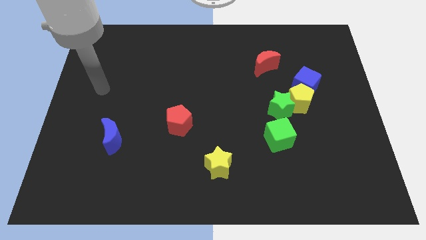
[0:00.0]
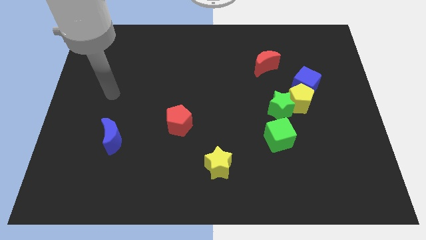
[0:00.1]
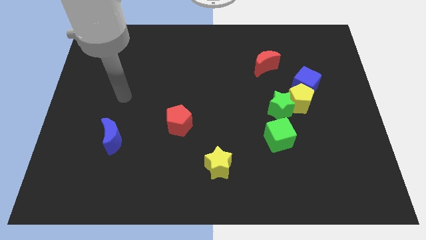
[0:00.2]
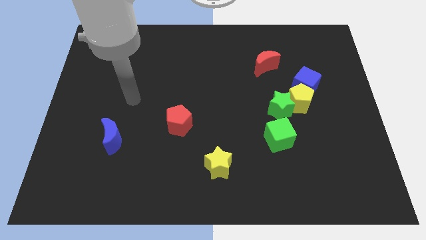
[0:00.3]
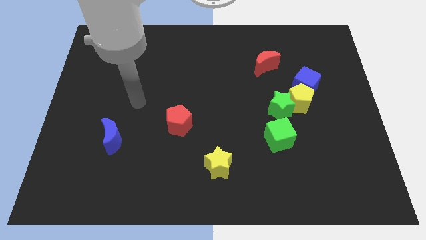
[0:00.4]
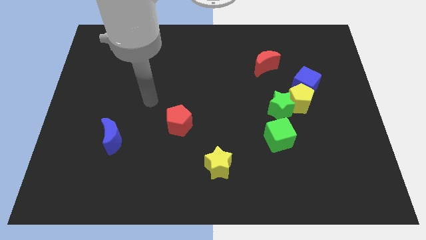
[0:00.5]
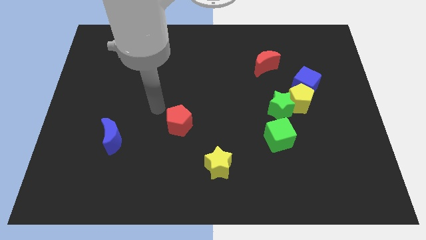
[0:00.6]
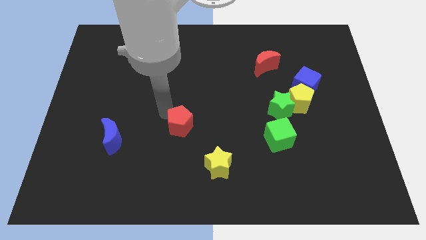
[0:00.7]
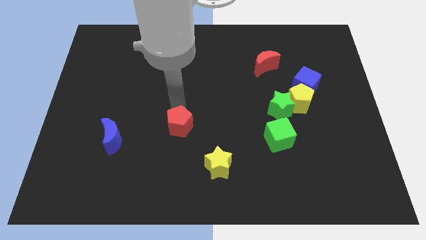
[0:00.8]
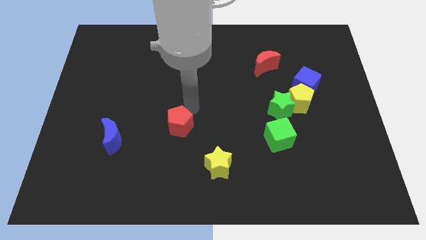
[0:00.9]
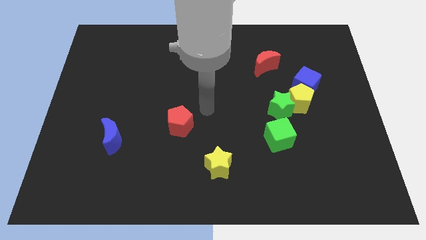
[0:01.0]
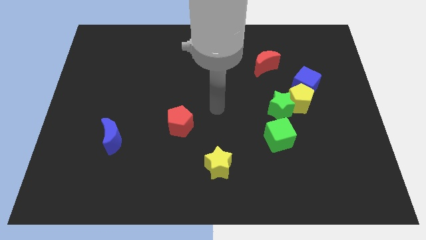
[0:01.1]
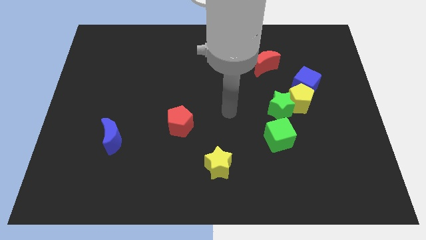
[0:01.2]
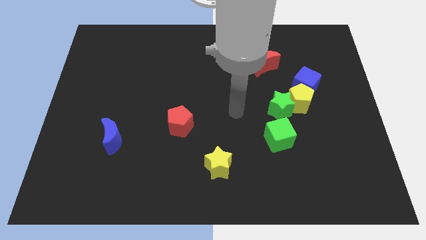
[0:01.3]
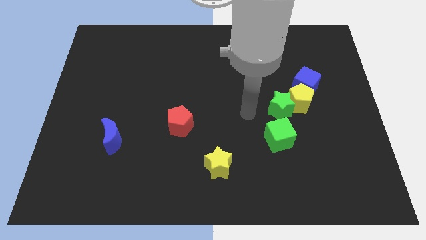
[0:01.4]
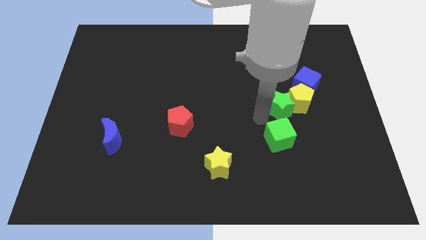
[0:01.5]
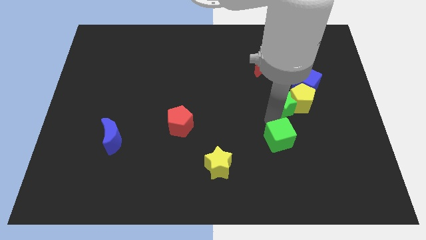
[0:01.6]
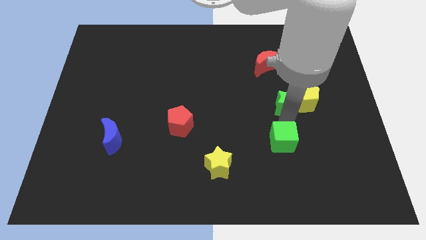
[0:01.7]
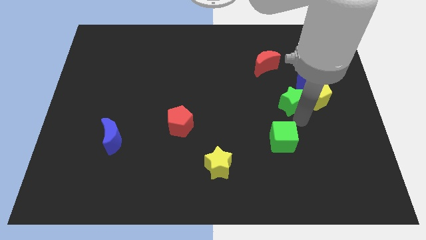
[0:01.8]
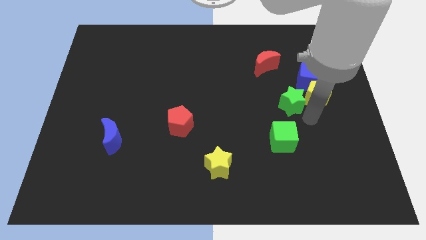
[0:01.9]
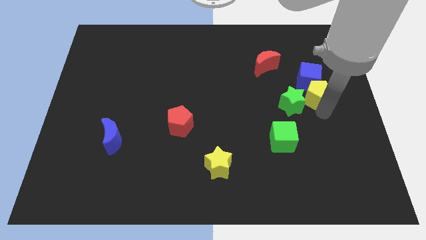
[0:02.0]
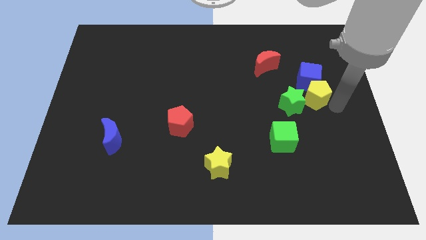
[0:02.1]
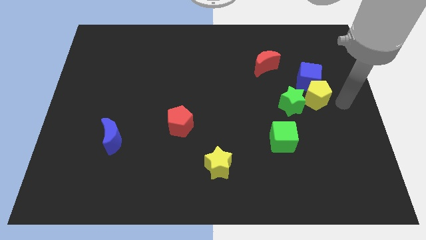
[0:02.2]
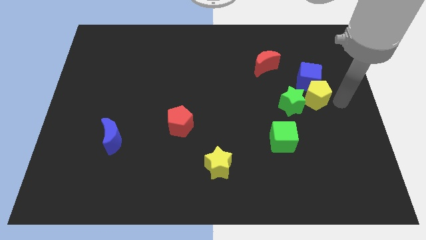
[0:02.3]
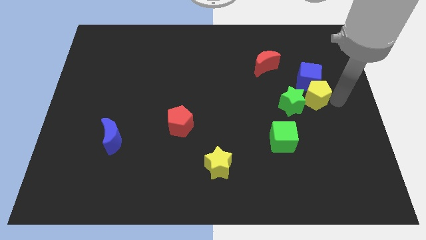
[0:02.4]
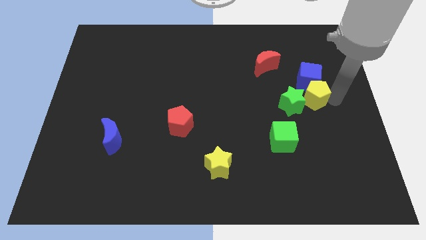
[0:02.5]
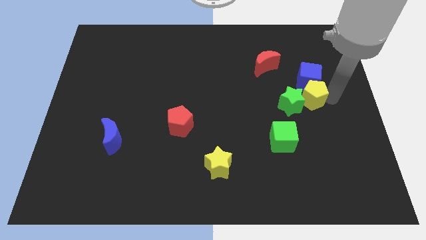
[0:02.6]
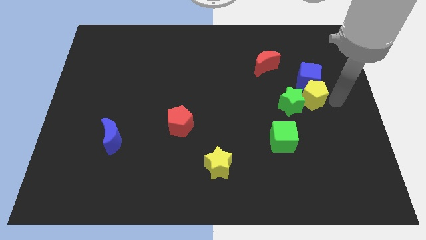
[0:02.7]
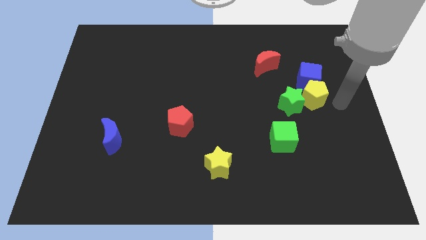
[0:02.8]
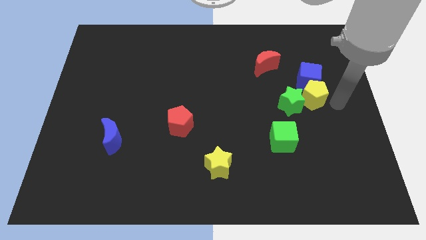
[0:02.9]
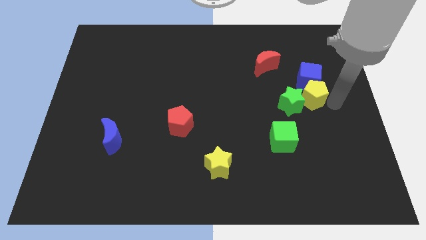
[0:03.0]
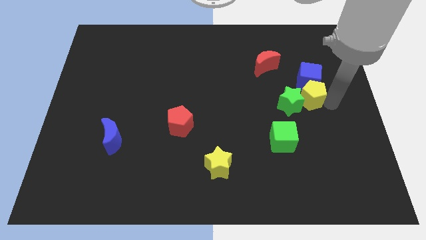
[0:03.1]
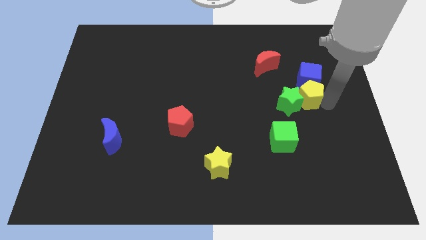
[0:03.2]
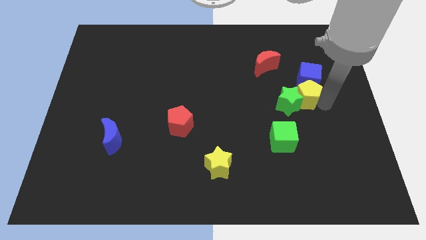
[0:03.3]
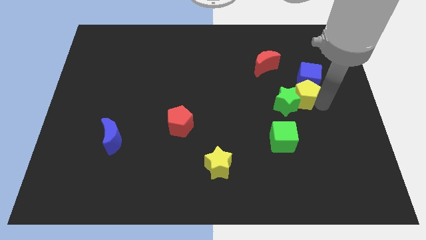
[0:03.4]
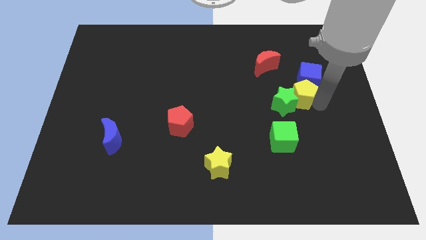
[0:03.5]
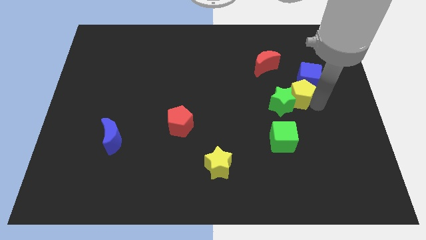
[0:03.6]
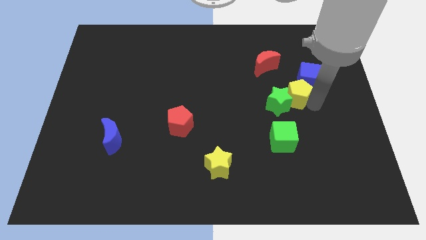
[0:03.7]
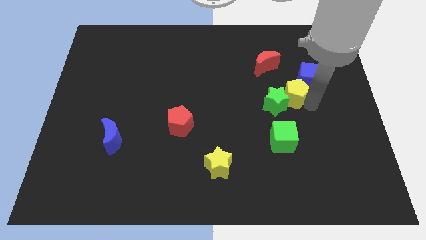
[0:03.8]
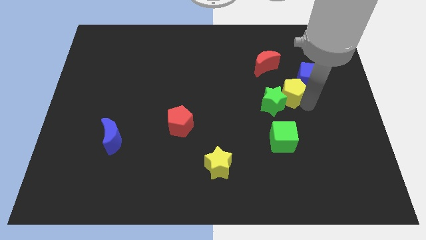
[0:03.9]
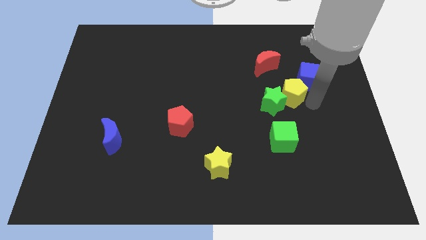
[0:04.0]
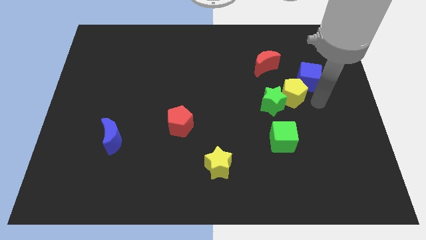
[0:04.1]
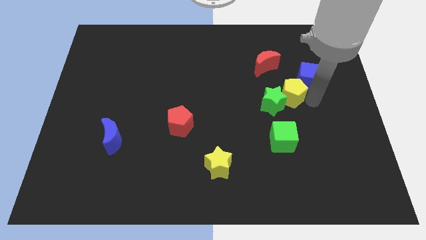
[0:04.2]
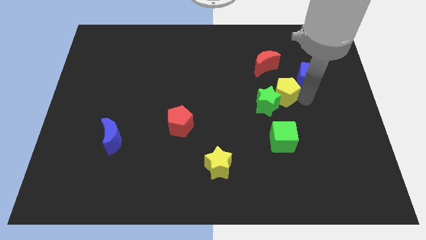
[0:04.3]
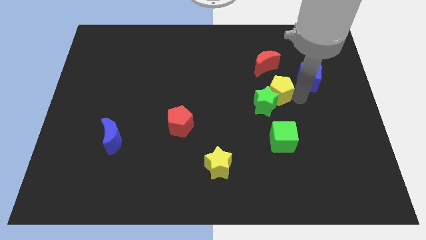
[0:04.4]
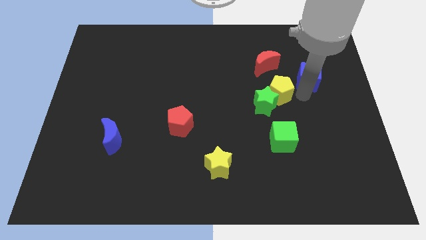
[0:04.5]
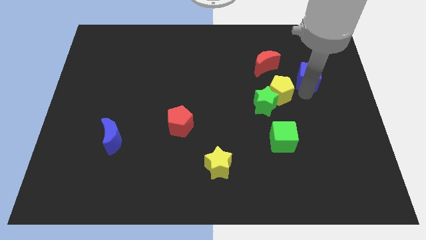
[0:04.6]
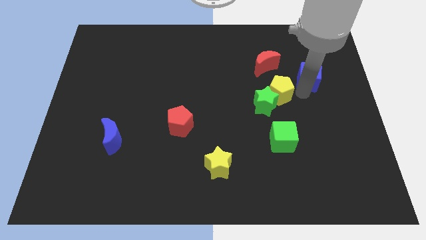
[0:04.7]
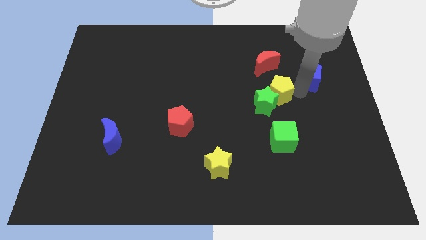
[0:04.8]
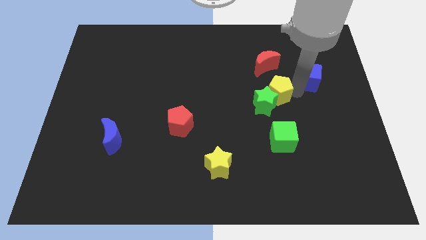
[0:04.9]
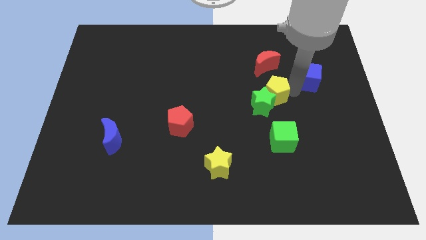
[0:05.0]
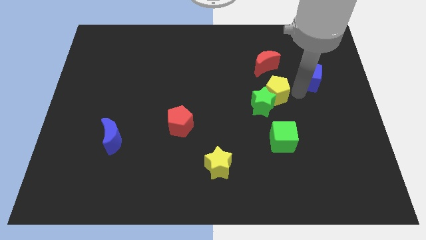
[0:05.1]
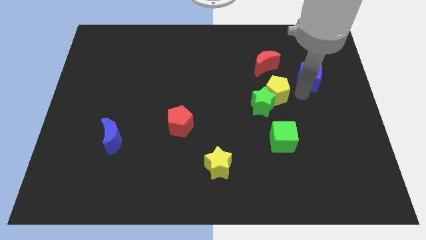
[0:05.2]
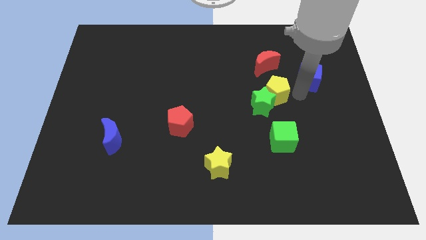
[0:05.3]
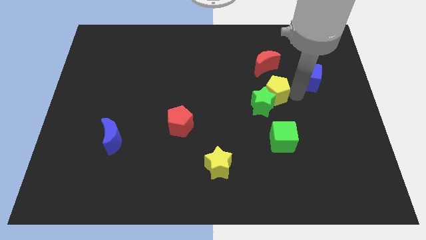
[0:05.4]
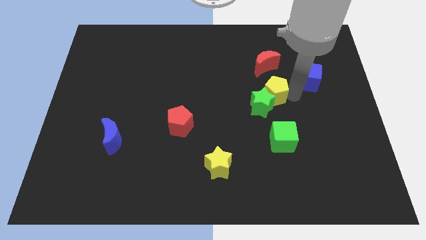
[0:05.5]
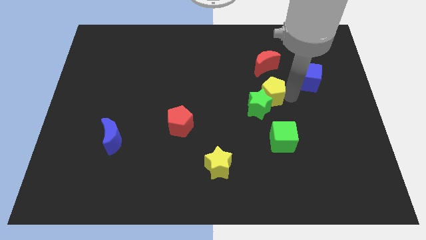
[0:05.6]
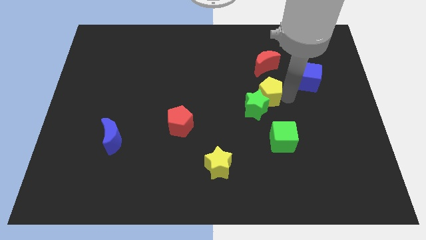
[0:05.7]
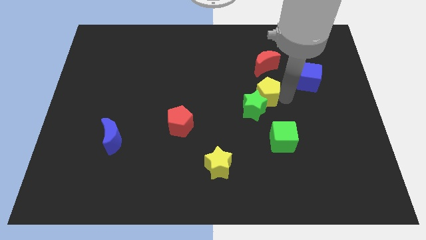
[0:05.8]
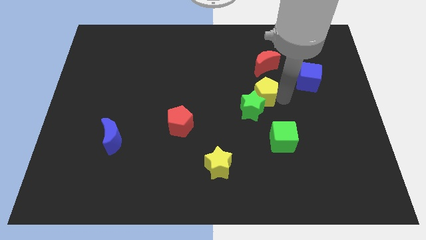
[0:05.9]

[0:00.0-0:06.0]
slide the yellow pentagon to the center
